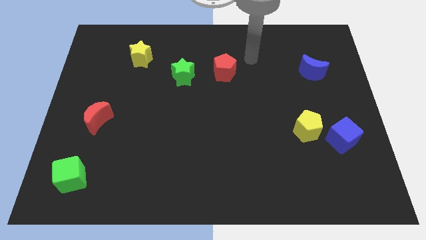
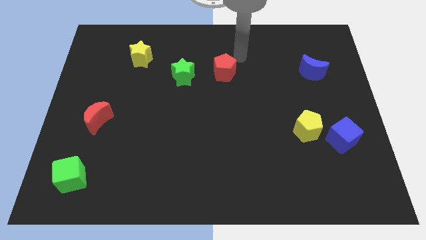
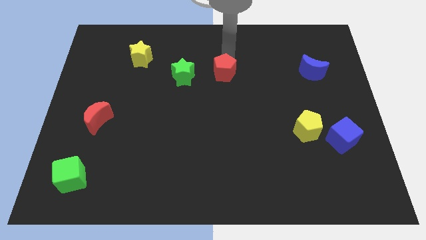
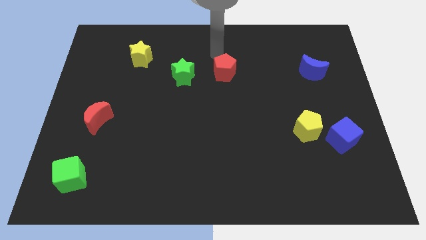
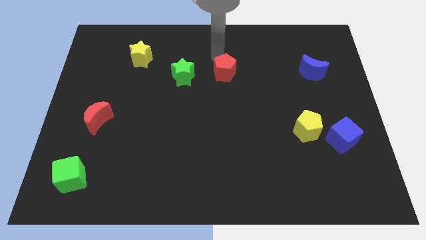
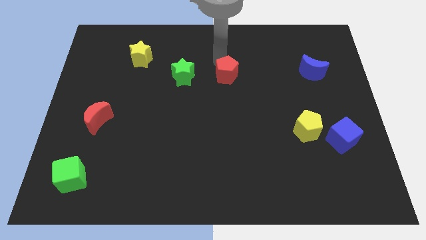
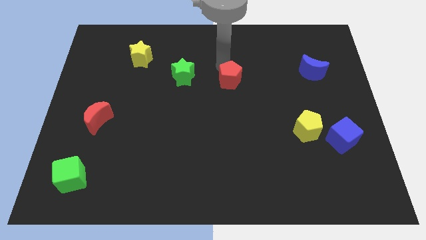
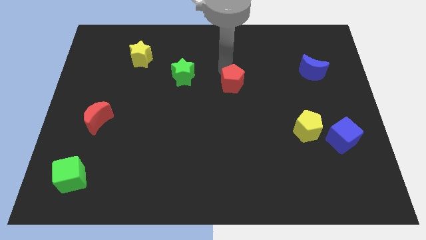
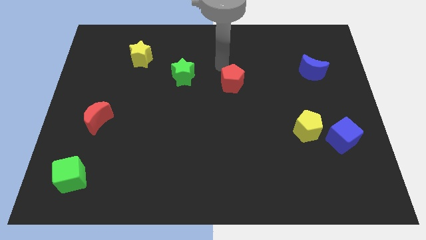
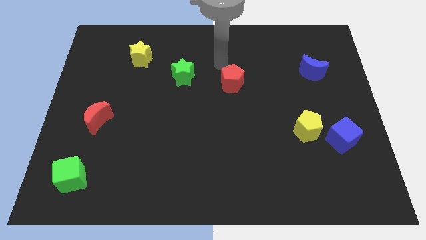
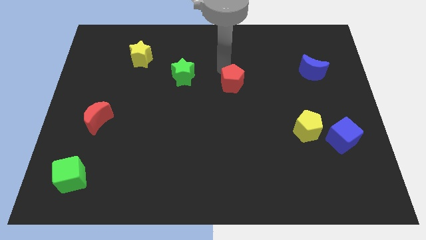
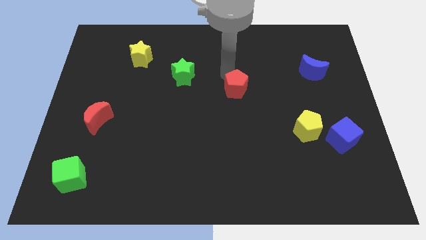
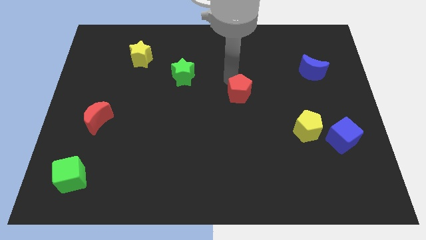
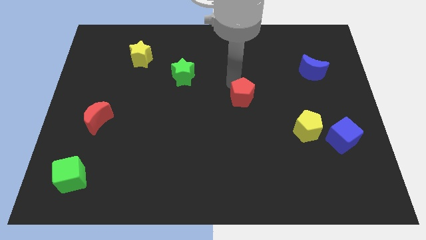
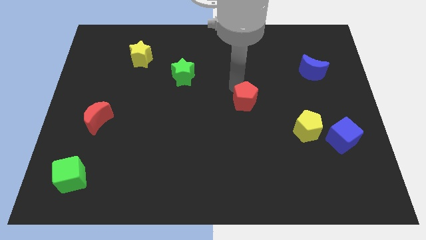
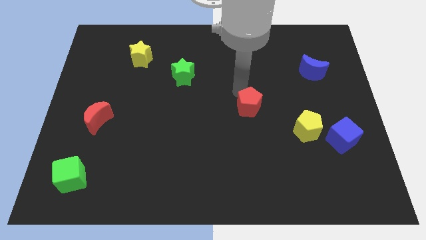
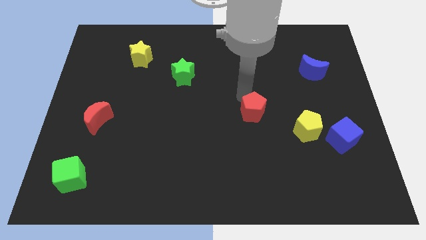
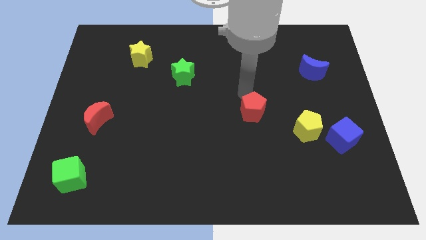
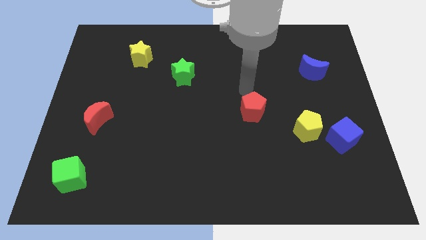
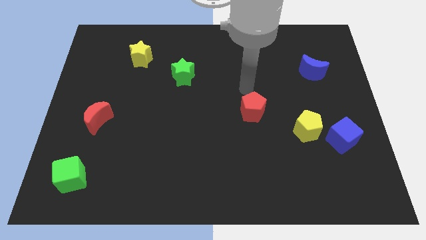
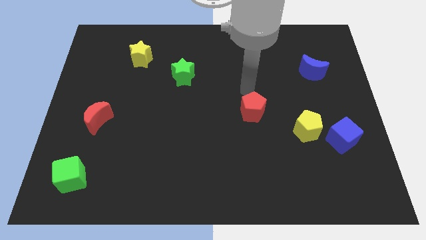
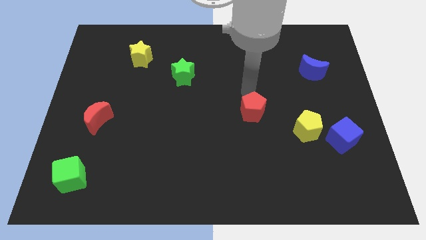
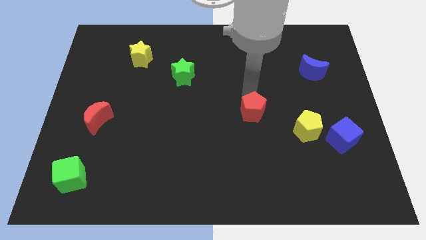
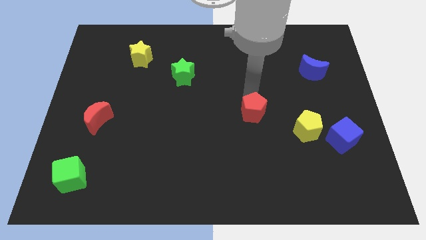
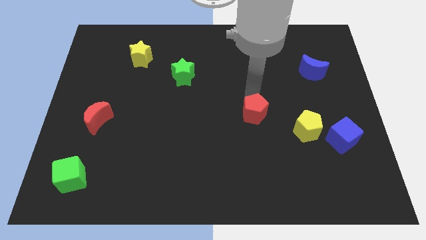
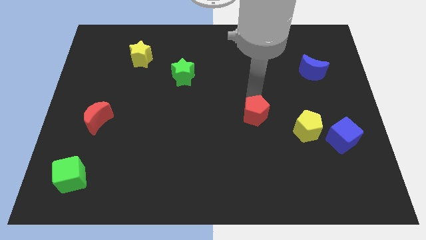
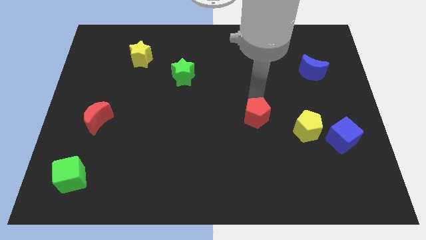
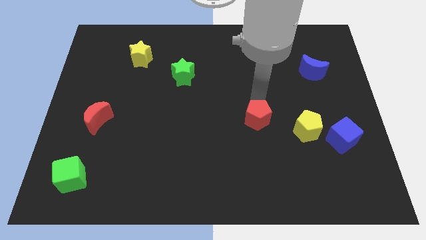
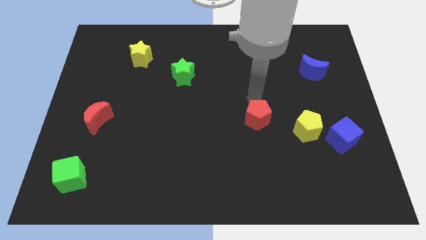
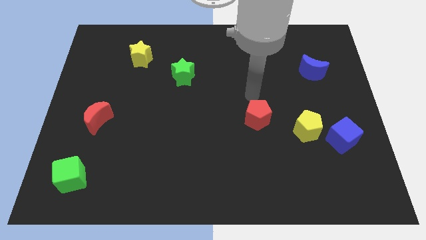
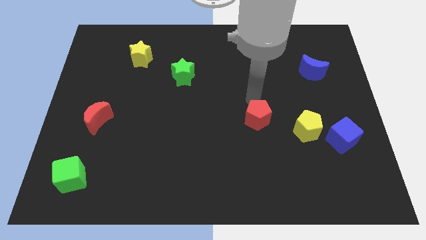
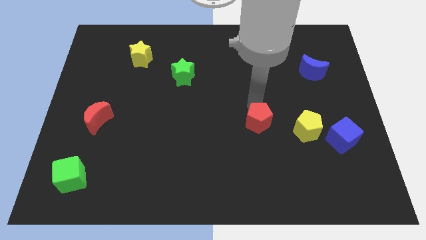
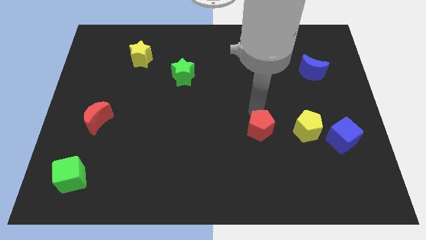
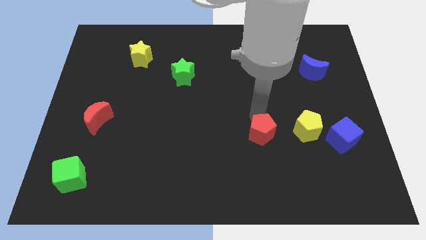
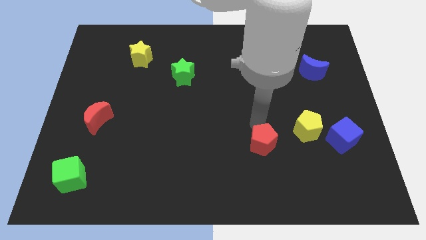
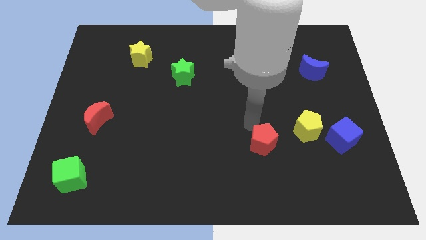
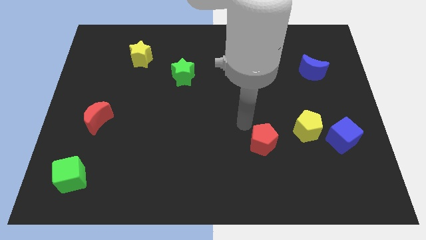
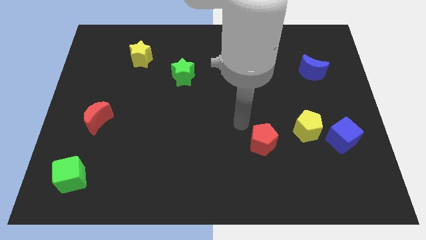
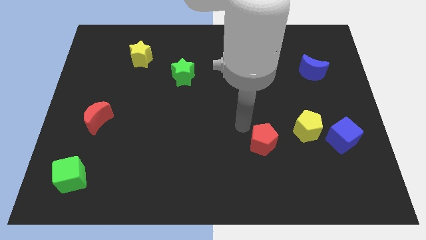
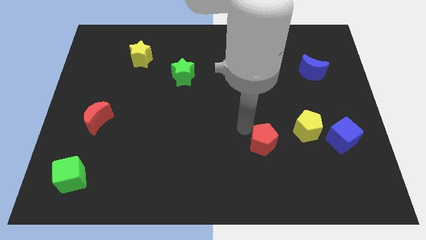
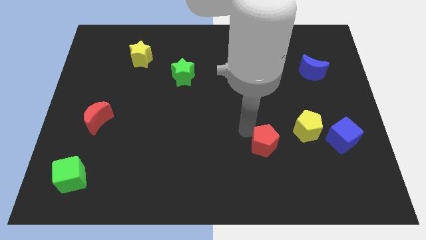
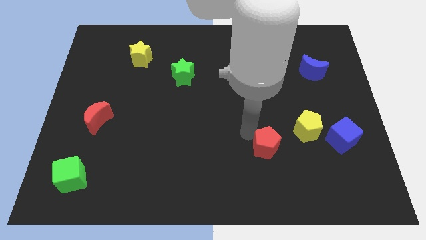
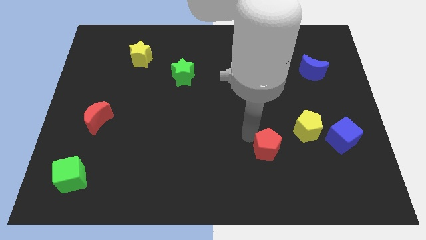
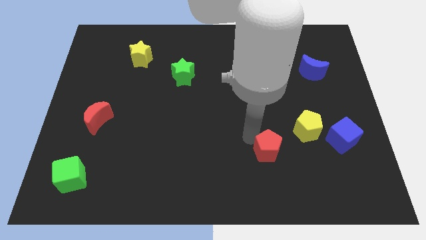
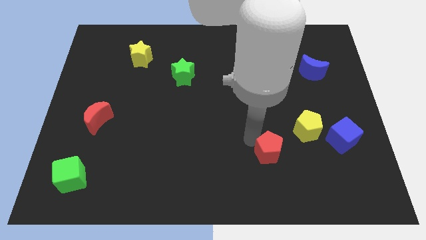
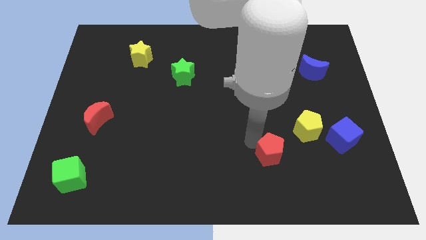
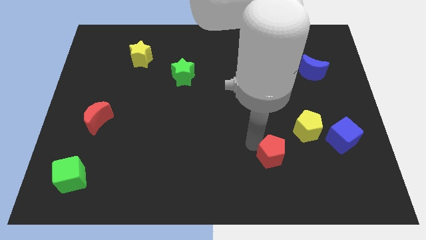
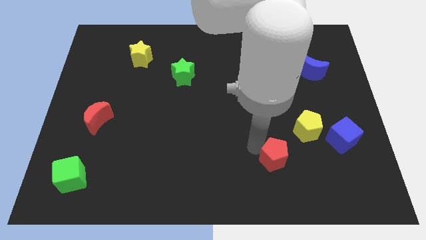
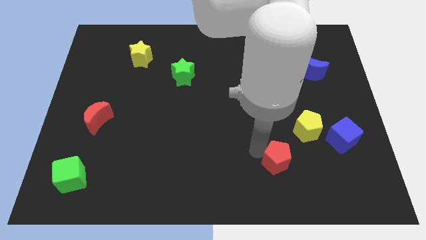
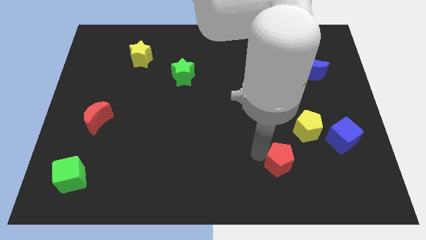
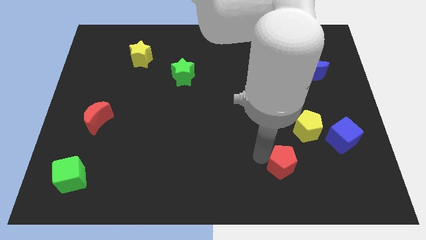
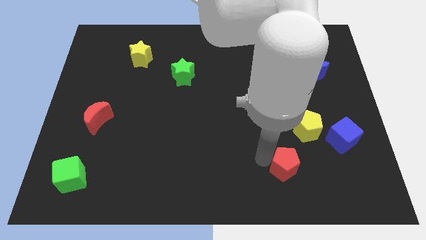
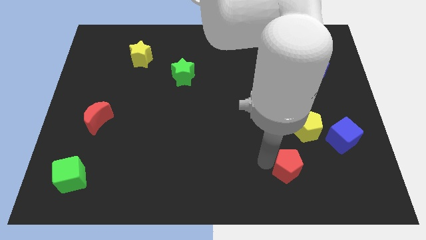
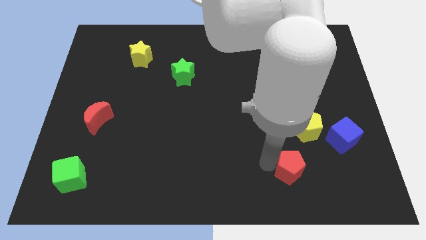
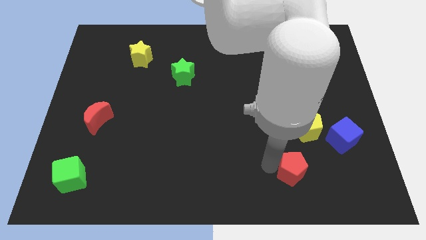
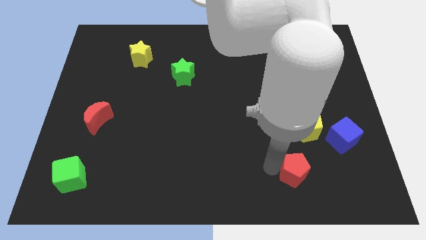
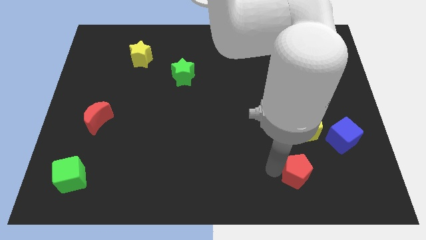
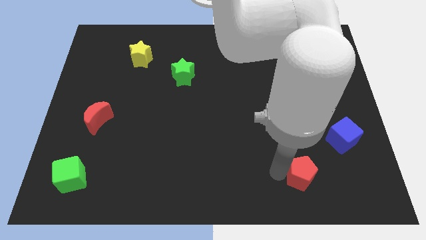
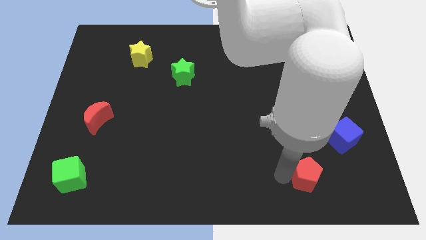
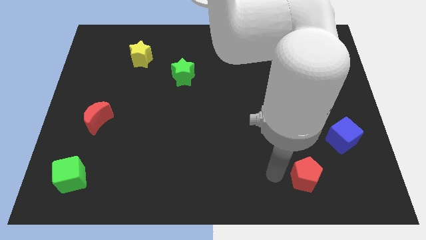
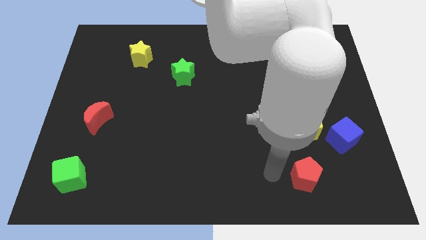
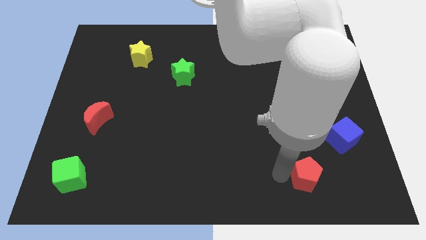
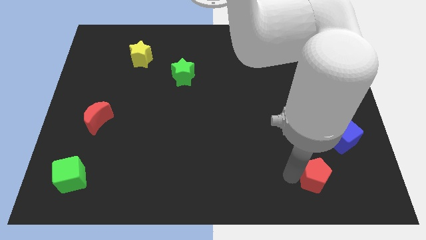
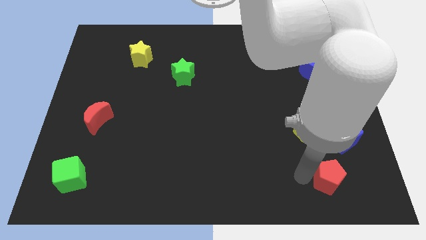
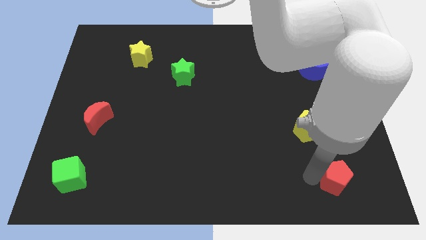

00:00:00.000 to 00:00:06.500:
put the red pentagon to the bottom of the blue cube
